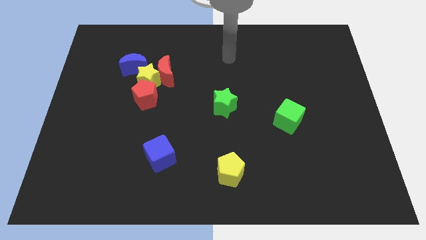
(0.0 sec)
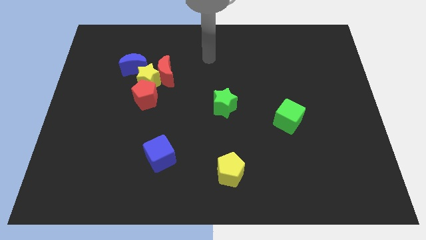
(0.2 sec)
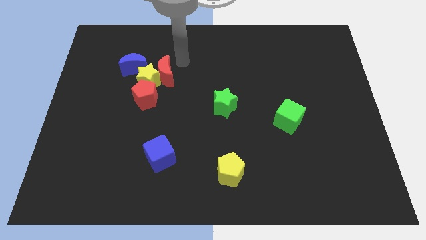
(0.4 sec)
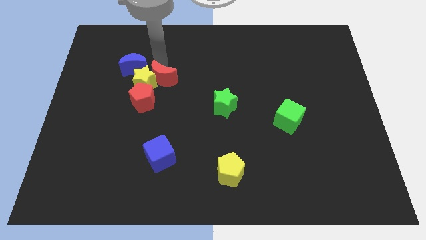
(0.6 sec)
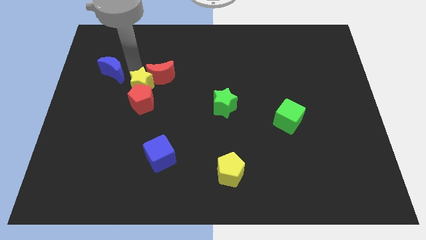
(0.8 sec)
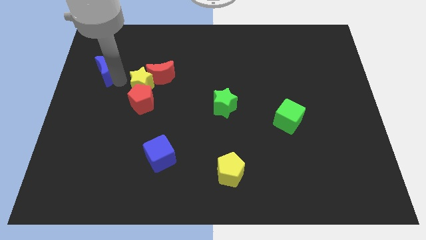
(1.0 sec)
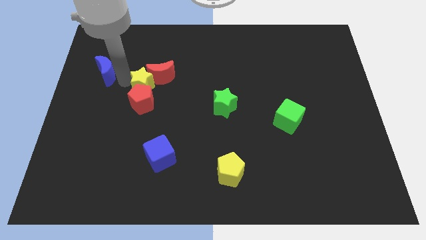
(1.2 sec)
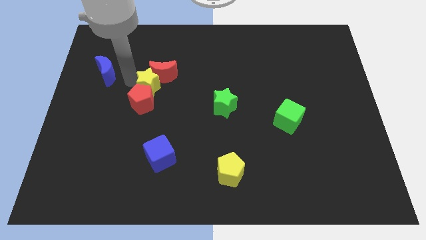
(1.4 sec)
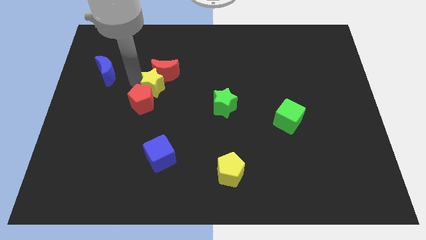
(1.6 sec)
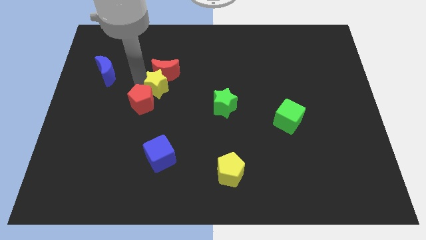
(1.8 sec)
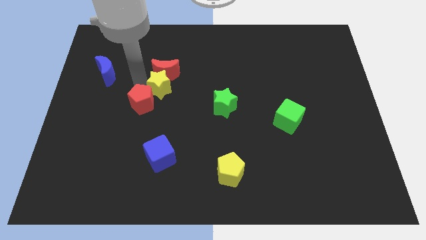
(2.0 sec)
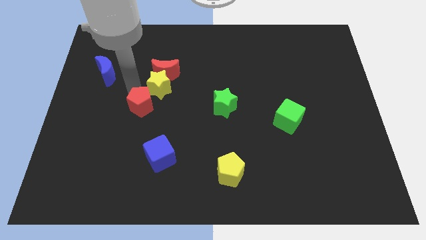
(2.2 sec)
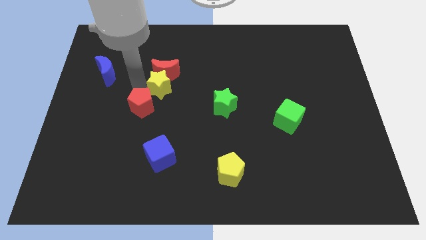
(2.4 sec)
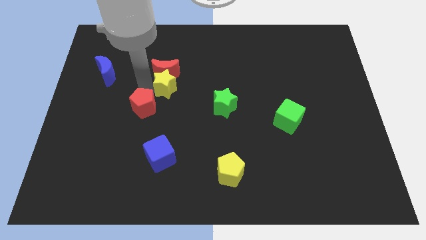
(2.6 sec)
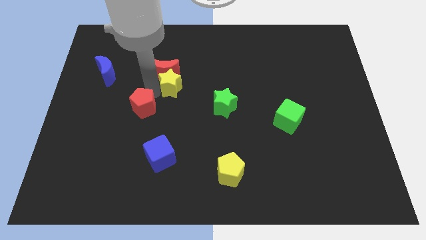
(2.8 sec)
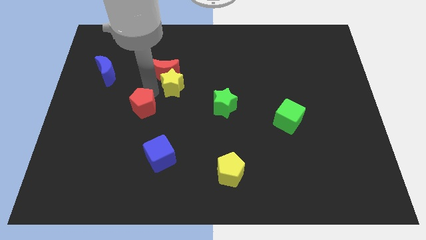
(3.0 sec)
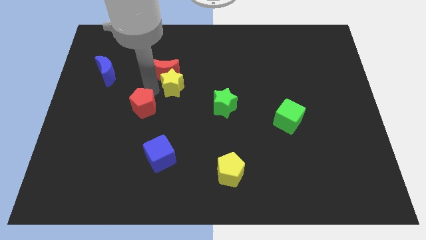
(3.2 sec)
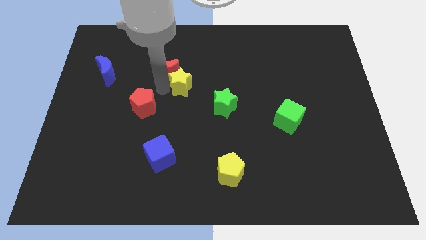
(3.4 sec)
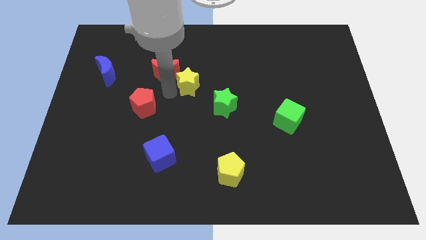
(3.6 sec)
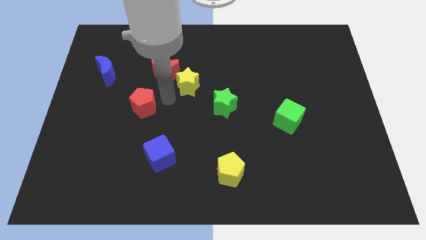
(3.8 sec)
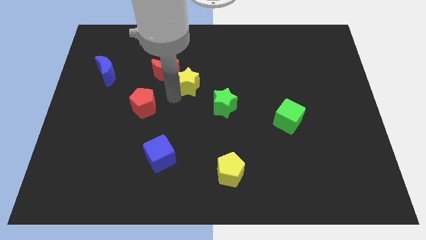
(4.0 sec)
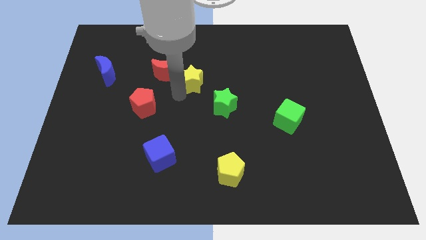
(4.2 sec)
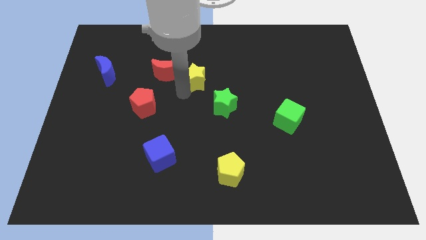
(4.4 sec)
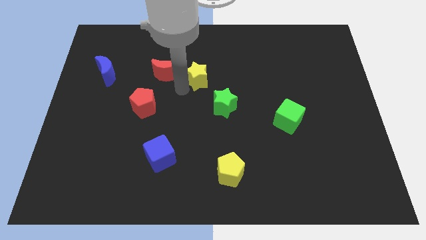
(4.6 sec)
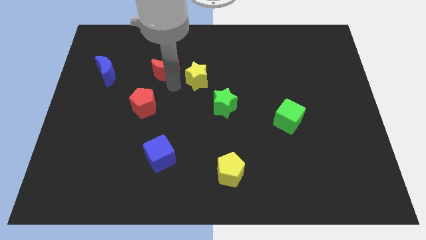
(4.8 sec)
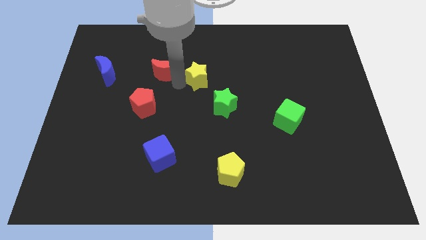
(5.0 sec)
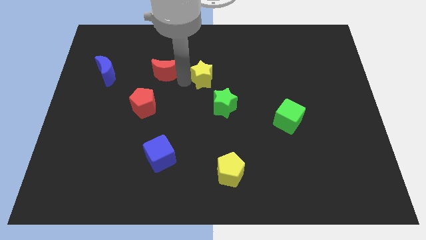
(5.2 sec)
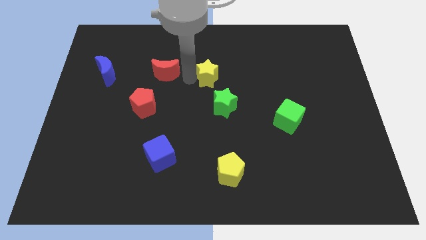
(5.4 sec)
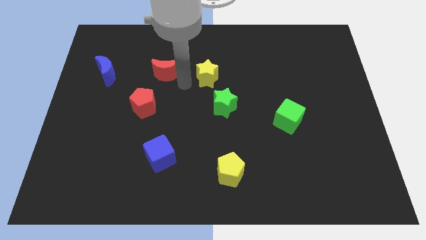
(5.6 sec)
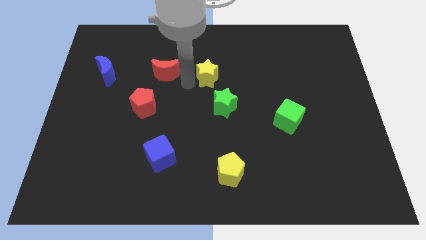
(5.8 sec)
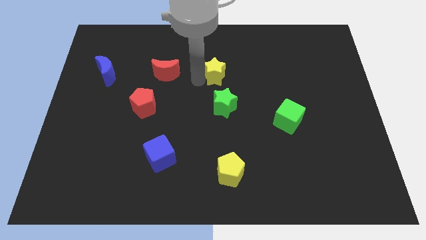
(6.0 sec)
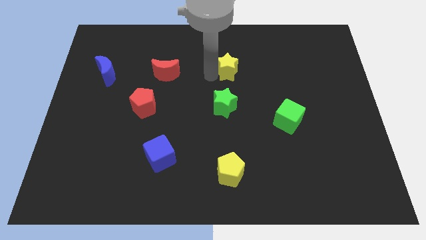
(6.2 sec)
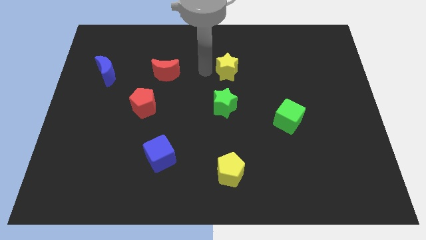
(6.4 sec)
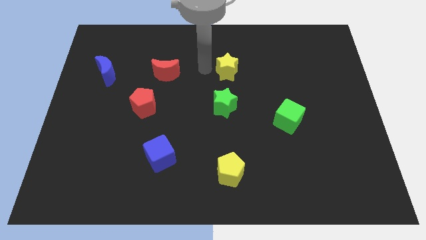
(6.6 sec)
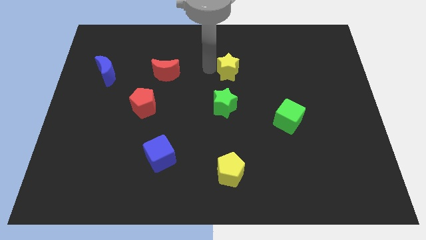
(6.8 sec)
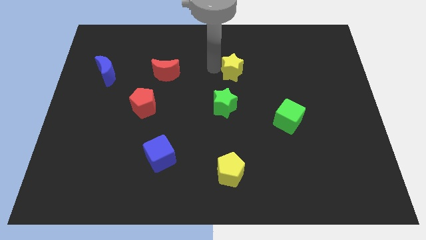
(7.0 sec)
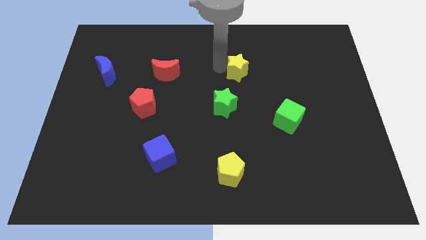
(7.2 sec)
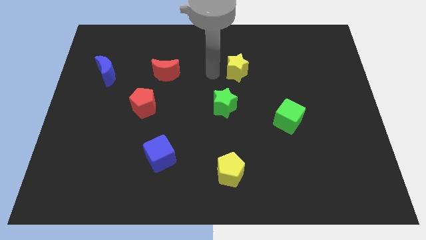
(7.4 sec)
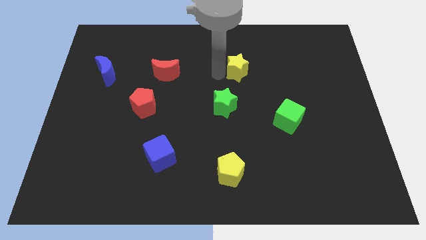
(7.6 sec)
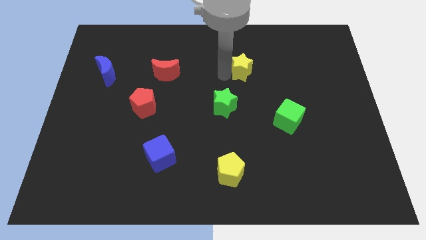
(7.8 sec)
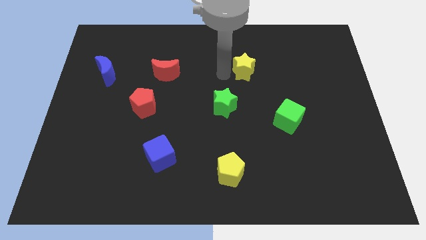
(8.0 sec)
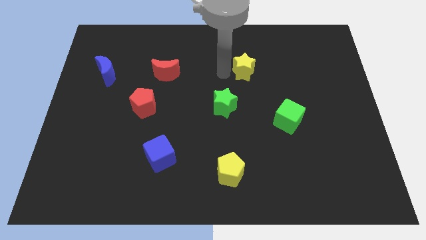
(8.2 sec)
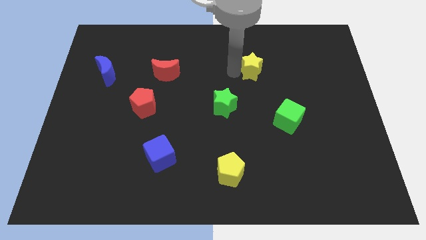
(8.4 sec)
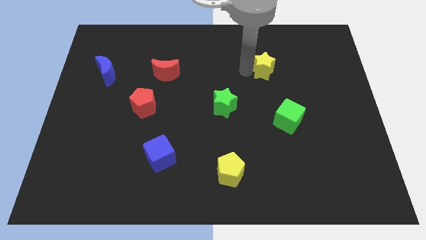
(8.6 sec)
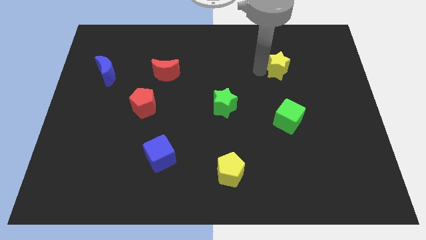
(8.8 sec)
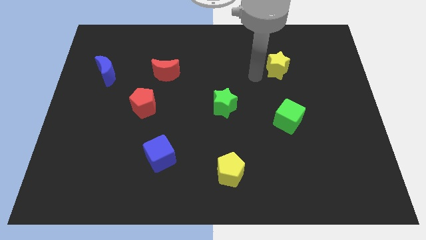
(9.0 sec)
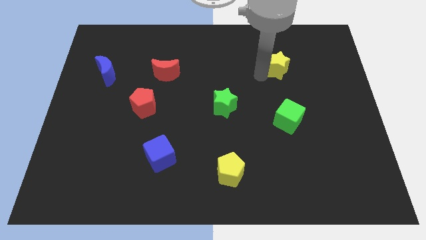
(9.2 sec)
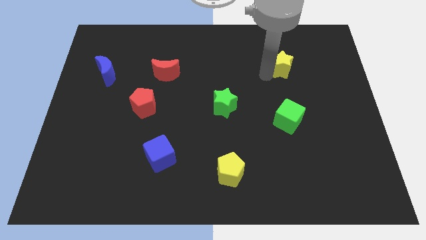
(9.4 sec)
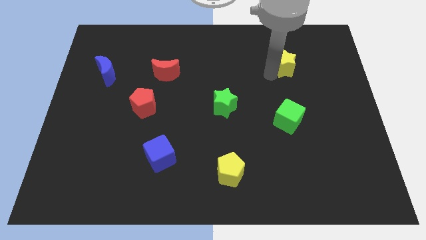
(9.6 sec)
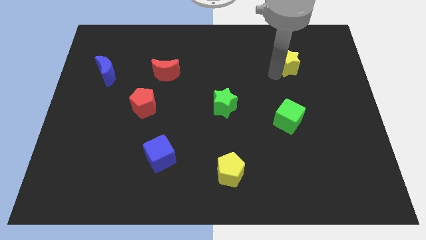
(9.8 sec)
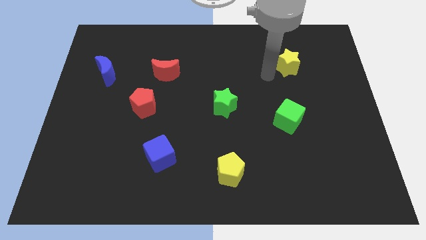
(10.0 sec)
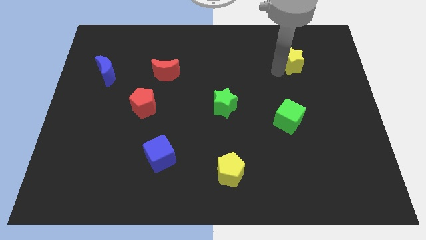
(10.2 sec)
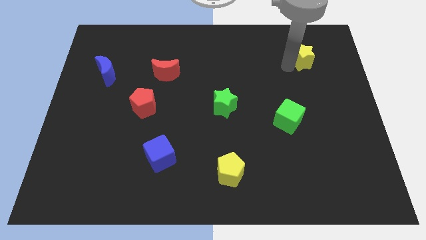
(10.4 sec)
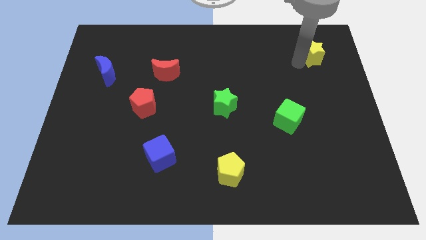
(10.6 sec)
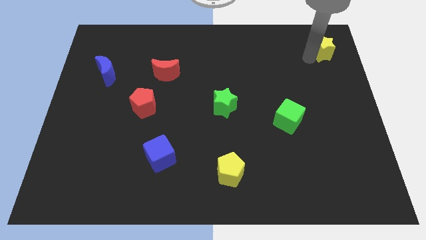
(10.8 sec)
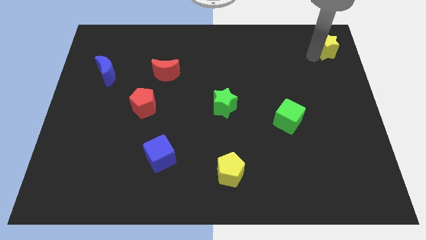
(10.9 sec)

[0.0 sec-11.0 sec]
slide the yellow star to the top right corner
